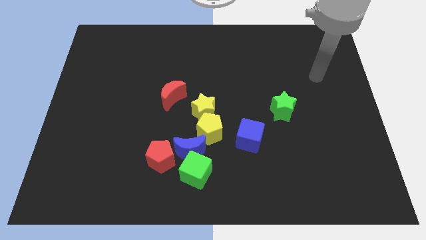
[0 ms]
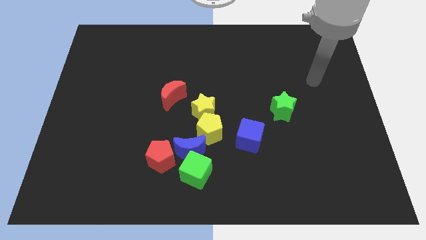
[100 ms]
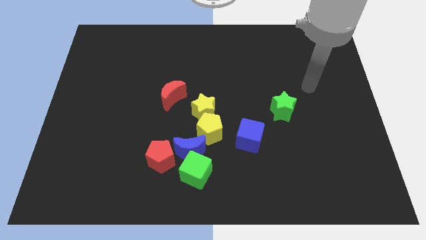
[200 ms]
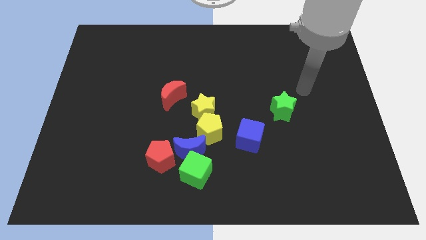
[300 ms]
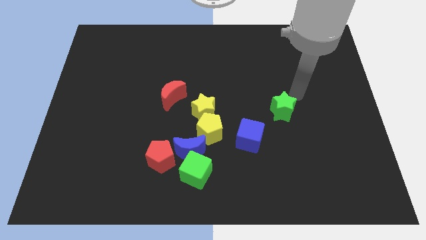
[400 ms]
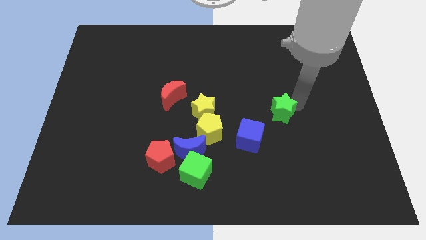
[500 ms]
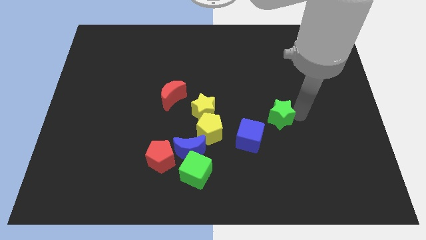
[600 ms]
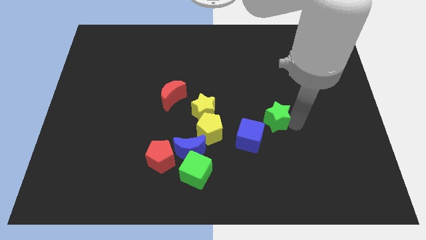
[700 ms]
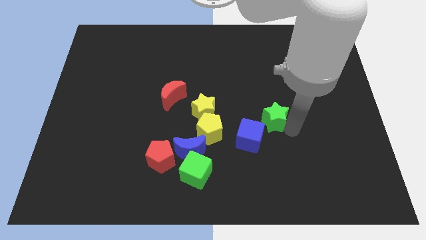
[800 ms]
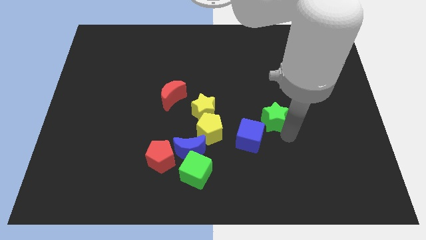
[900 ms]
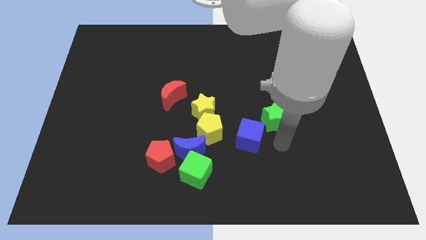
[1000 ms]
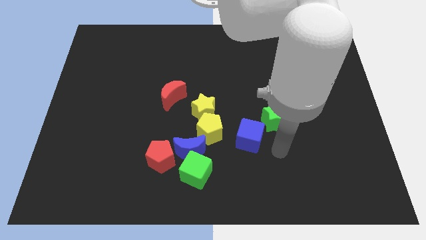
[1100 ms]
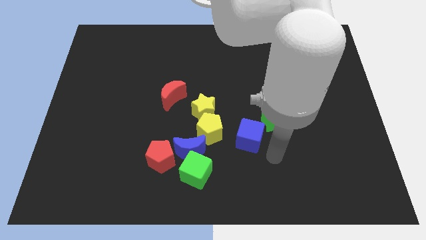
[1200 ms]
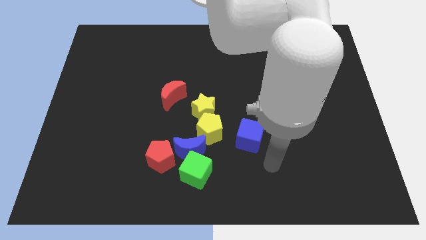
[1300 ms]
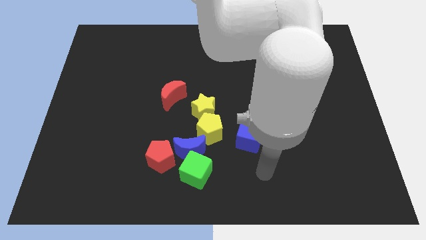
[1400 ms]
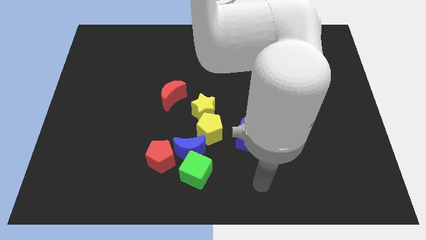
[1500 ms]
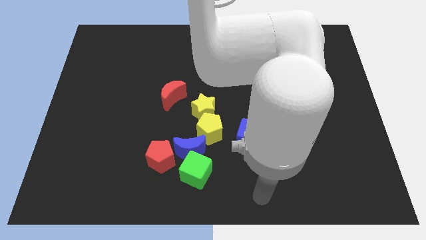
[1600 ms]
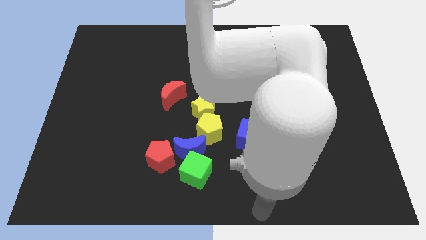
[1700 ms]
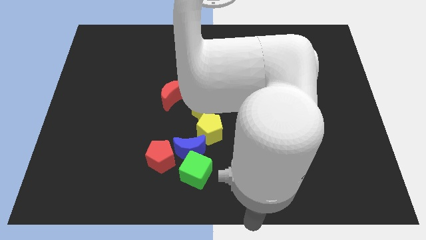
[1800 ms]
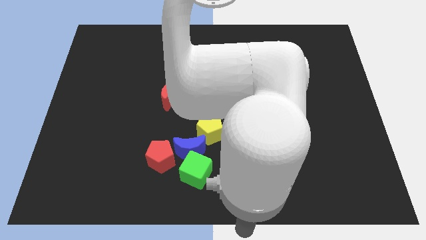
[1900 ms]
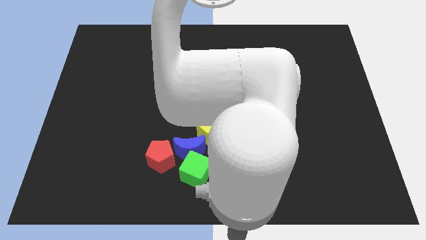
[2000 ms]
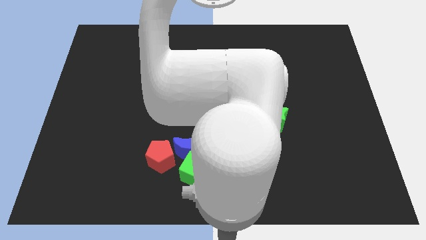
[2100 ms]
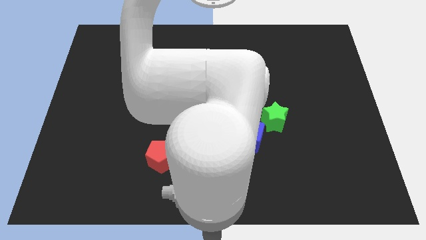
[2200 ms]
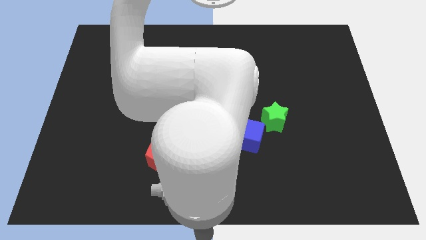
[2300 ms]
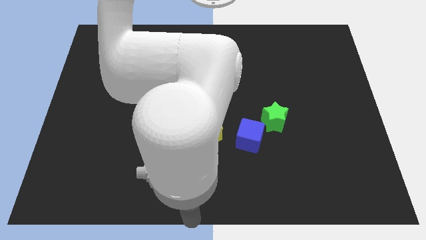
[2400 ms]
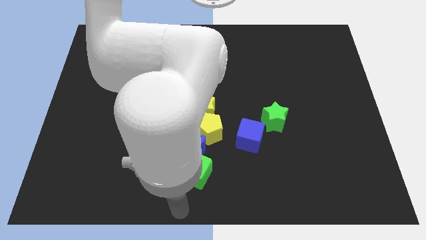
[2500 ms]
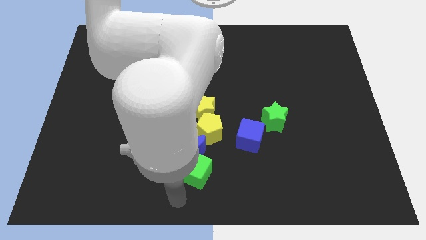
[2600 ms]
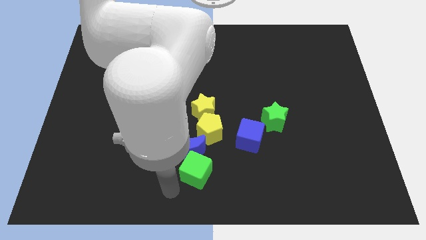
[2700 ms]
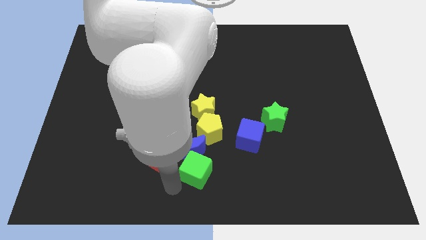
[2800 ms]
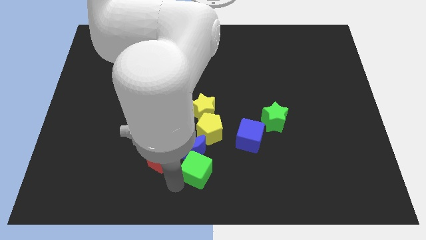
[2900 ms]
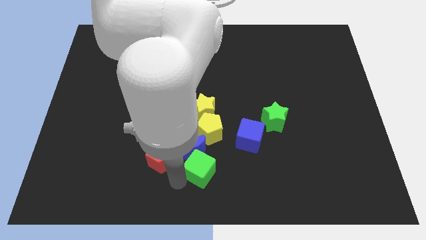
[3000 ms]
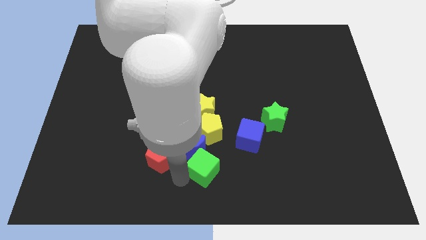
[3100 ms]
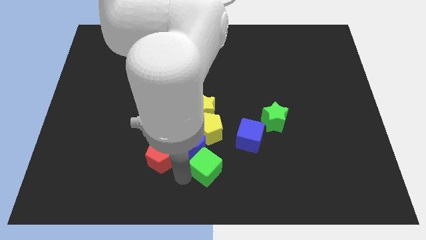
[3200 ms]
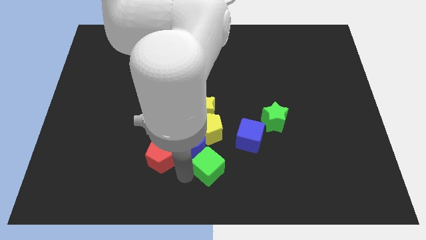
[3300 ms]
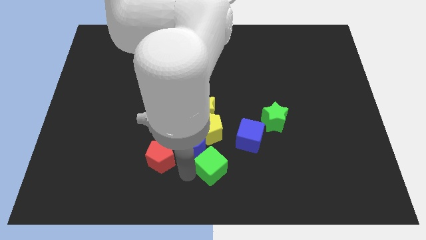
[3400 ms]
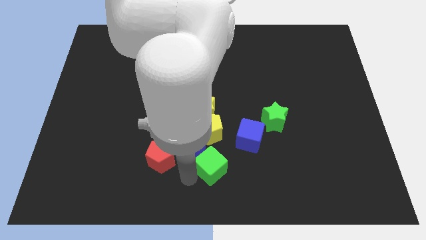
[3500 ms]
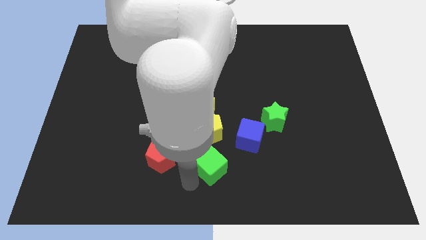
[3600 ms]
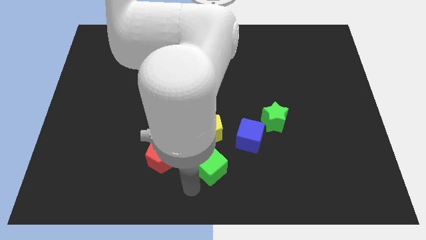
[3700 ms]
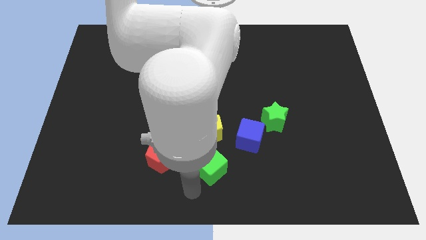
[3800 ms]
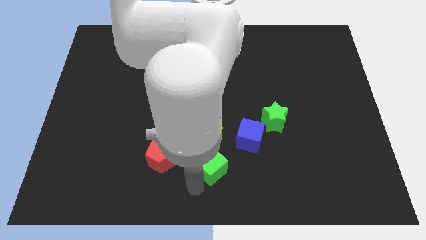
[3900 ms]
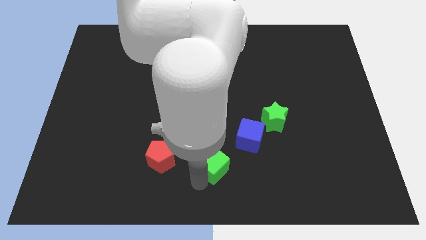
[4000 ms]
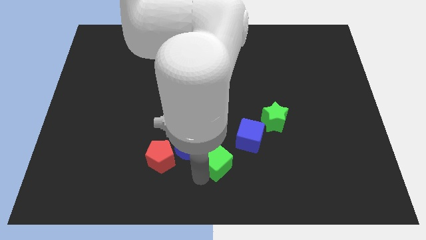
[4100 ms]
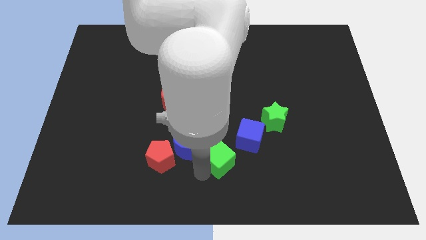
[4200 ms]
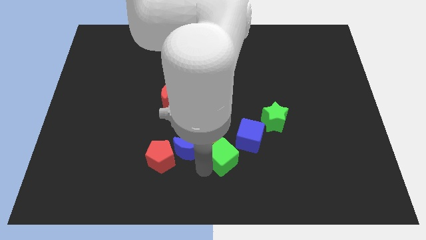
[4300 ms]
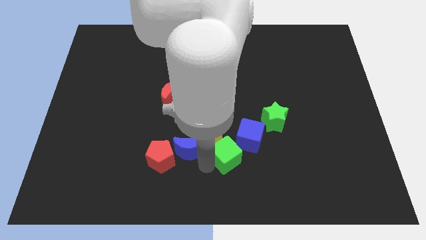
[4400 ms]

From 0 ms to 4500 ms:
slide the green cube upwards and to the right slightly

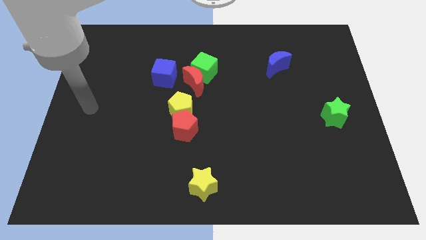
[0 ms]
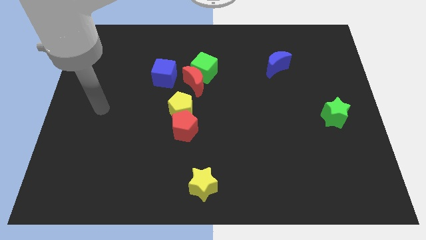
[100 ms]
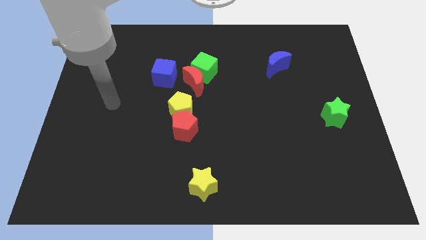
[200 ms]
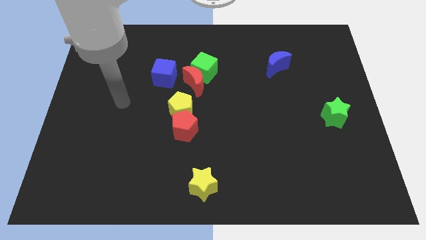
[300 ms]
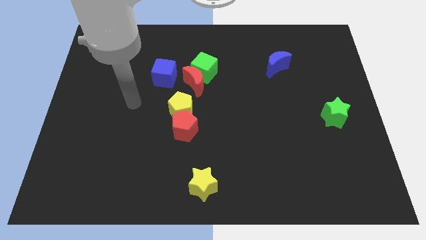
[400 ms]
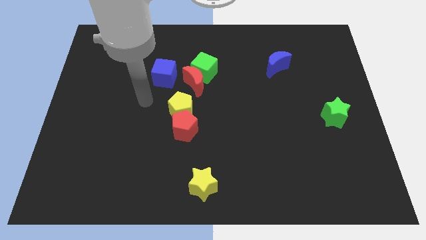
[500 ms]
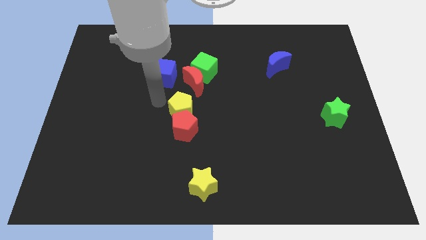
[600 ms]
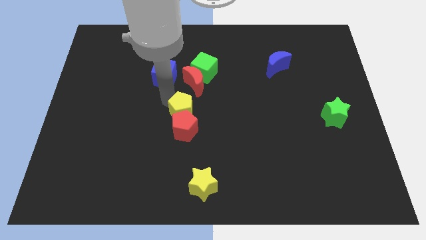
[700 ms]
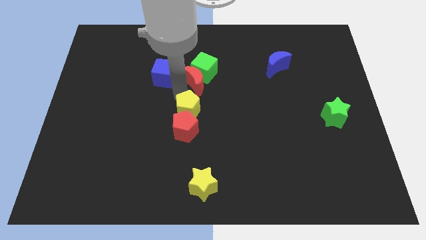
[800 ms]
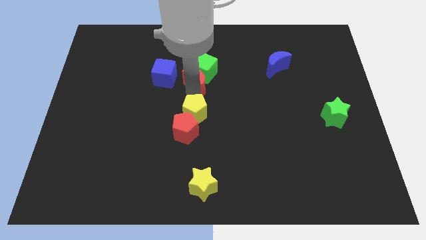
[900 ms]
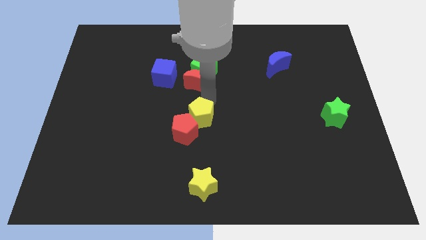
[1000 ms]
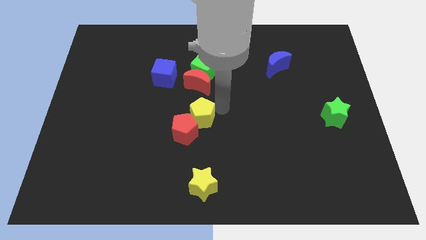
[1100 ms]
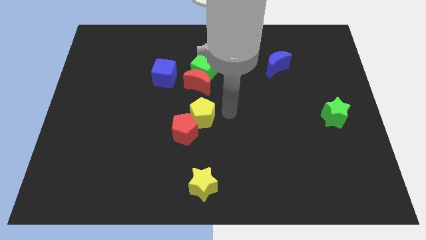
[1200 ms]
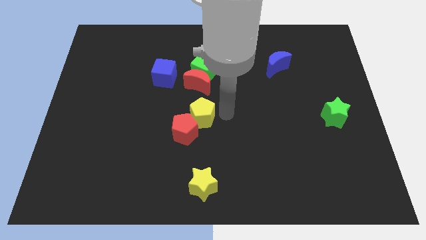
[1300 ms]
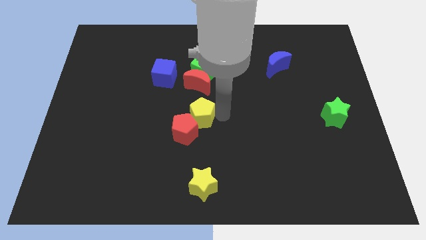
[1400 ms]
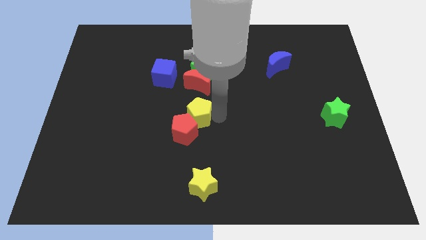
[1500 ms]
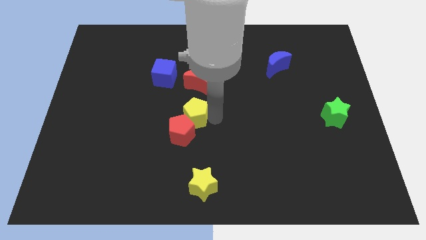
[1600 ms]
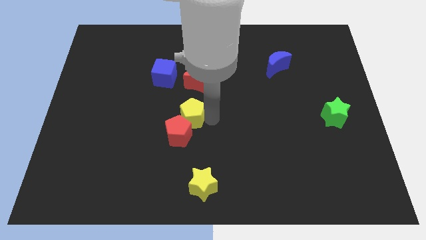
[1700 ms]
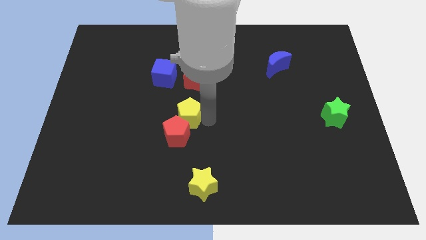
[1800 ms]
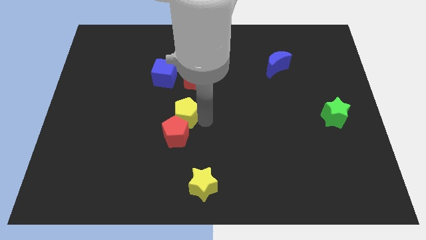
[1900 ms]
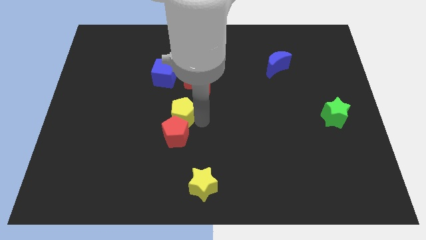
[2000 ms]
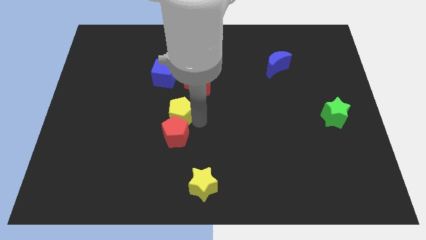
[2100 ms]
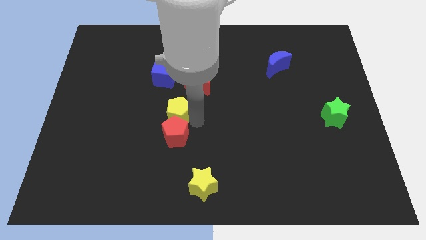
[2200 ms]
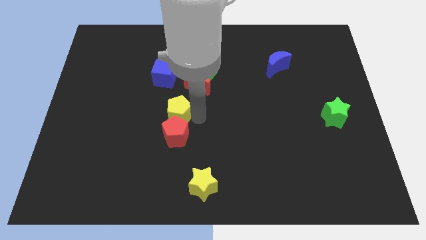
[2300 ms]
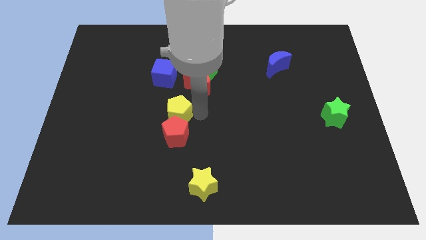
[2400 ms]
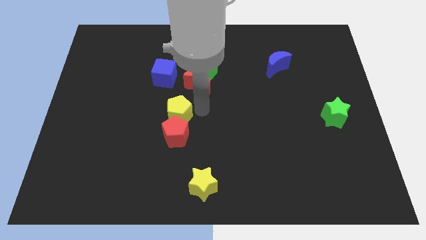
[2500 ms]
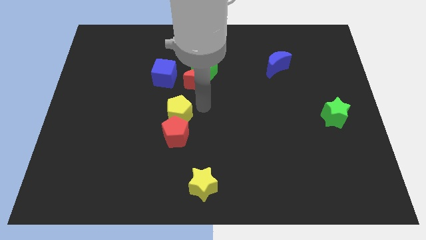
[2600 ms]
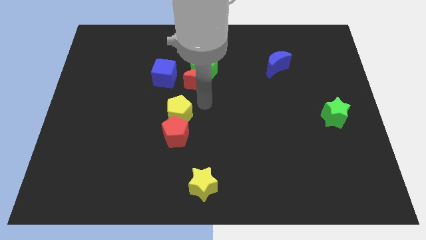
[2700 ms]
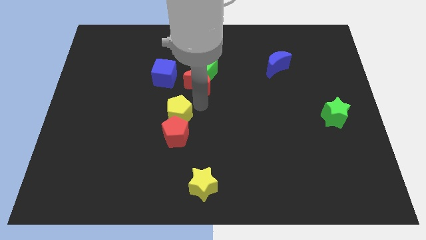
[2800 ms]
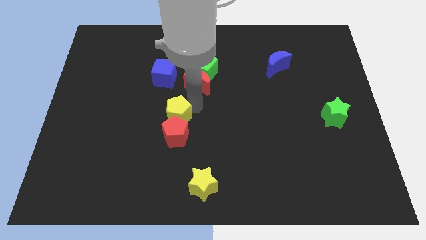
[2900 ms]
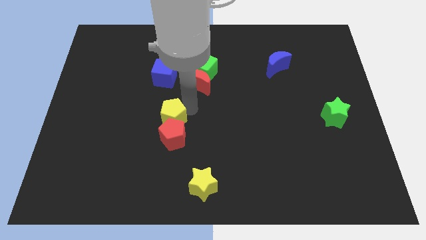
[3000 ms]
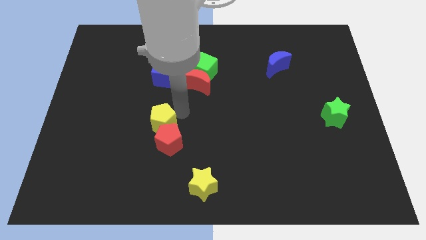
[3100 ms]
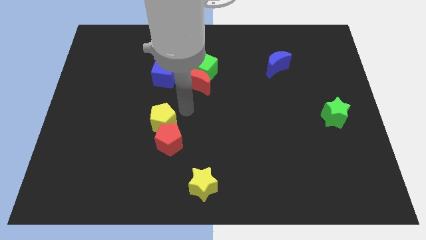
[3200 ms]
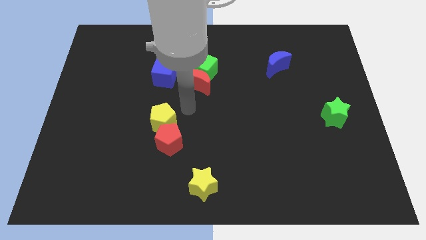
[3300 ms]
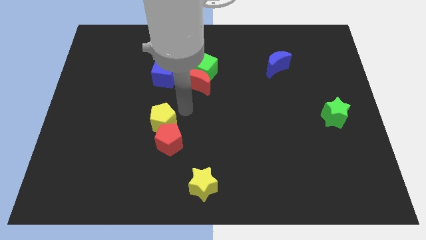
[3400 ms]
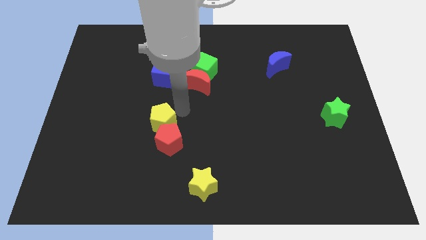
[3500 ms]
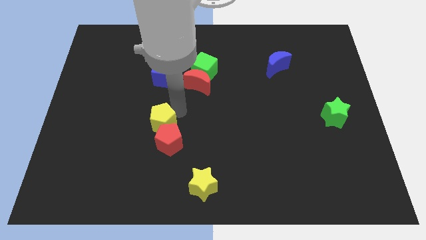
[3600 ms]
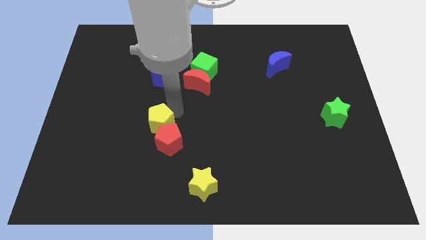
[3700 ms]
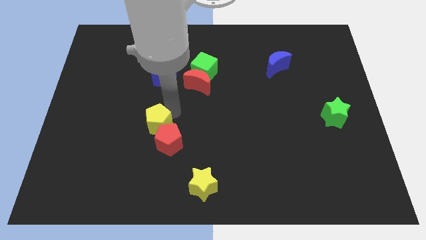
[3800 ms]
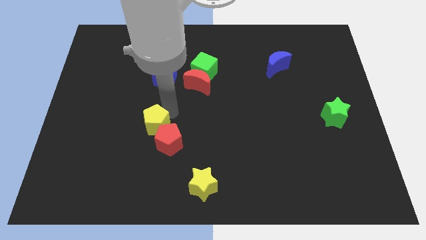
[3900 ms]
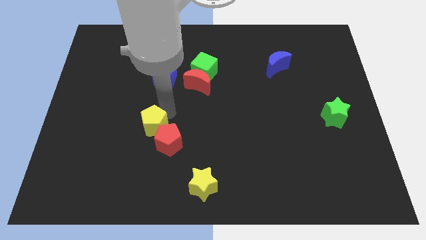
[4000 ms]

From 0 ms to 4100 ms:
push the yellow pentagon down and to the left a little bit
